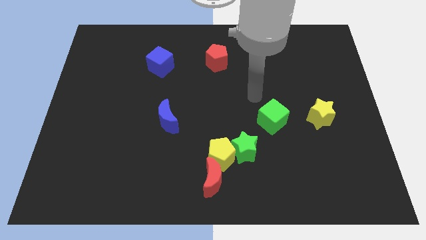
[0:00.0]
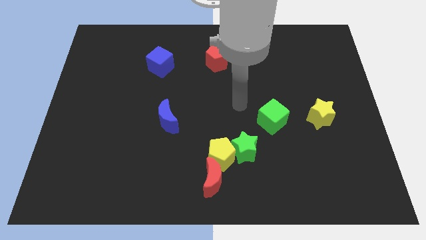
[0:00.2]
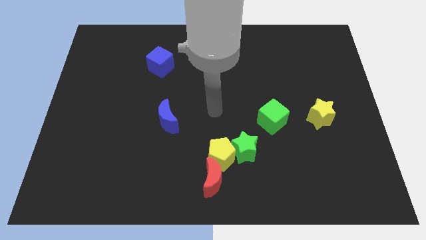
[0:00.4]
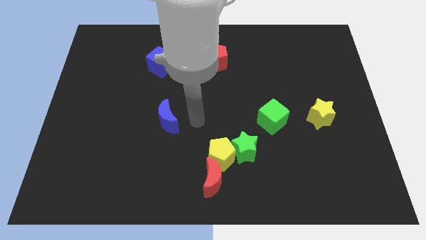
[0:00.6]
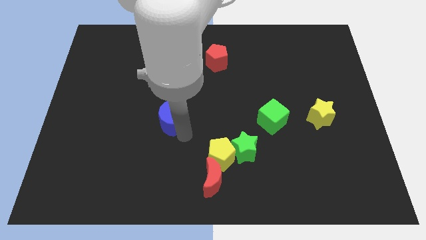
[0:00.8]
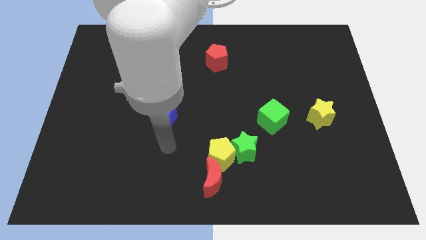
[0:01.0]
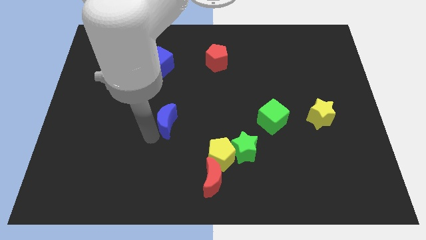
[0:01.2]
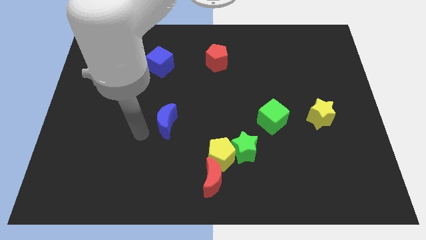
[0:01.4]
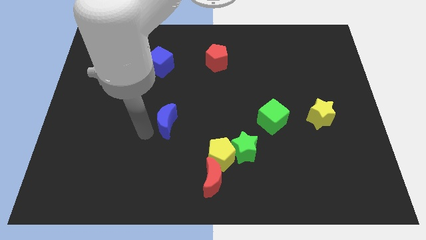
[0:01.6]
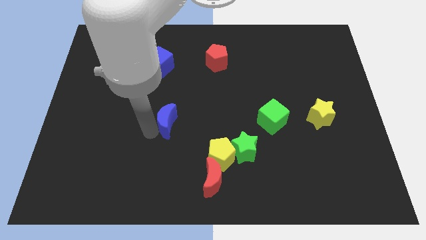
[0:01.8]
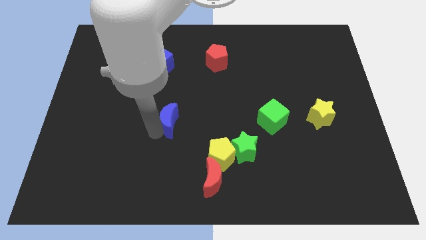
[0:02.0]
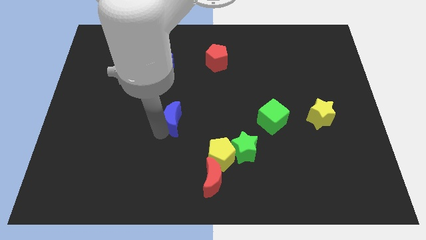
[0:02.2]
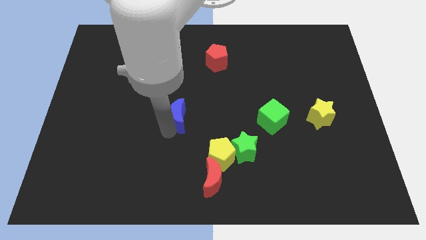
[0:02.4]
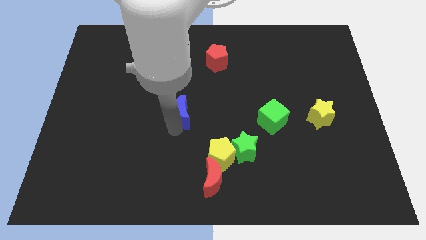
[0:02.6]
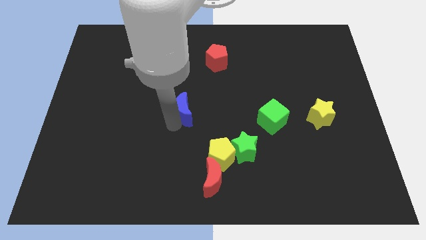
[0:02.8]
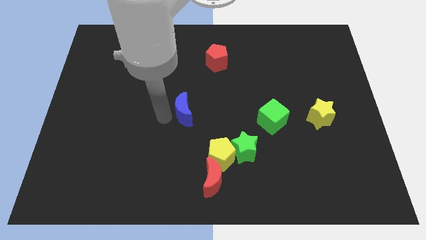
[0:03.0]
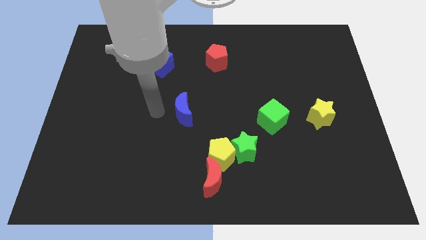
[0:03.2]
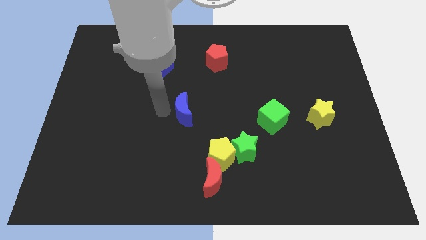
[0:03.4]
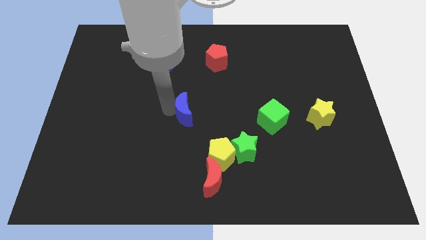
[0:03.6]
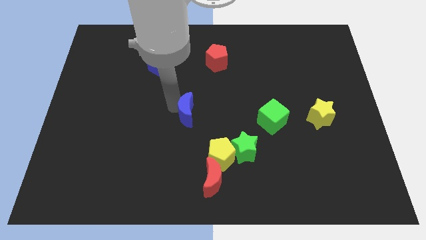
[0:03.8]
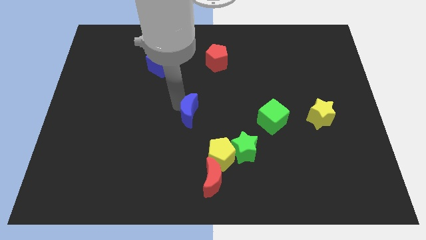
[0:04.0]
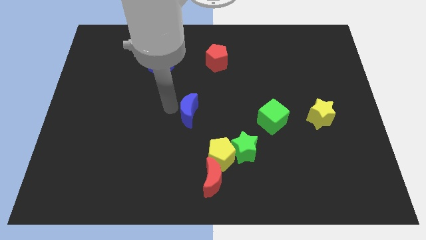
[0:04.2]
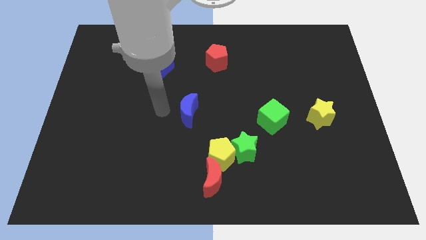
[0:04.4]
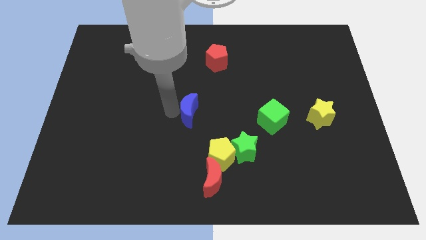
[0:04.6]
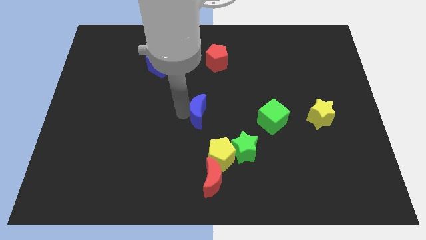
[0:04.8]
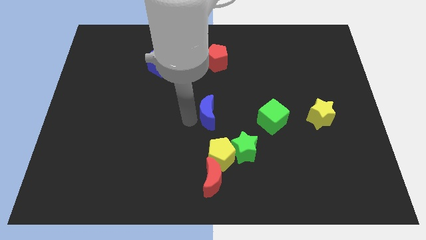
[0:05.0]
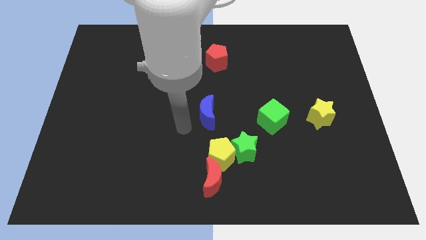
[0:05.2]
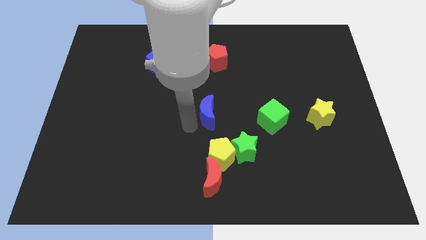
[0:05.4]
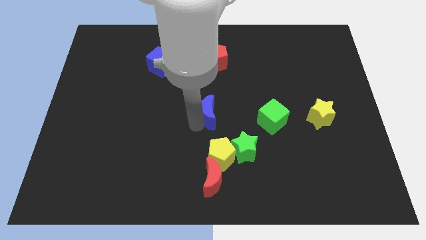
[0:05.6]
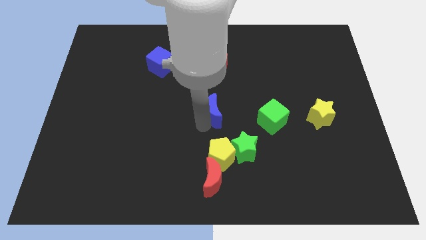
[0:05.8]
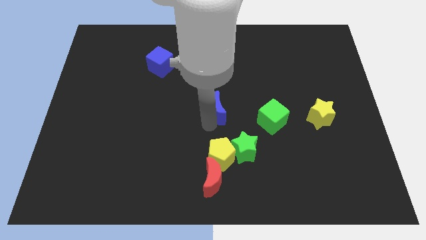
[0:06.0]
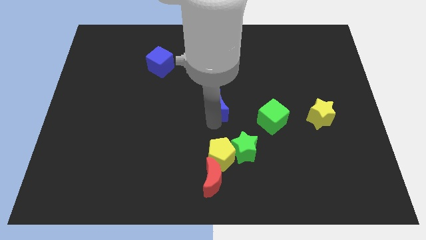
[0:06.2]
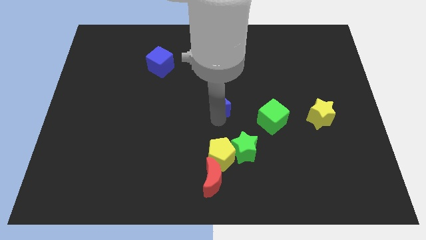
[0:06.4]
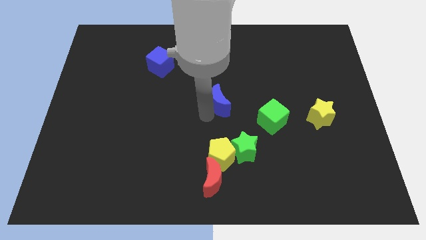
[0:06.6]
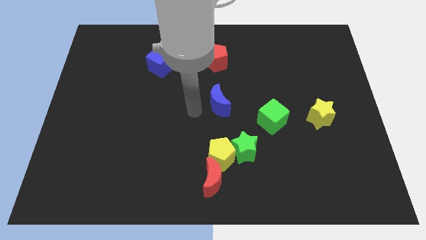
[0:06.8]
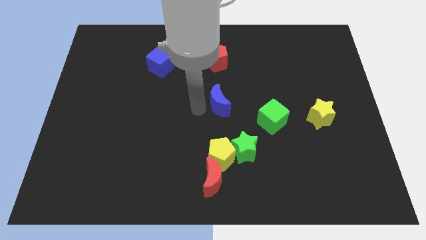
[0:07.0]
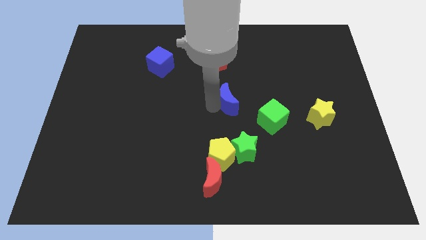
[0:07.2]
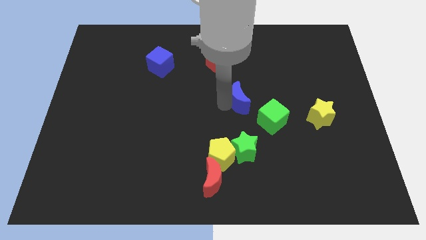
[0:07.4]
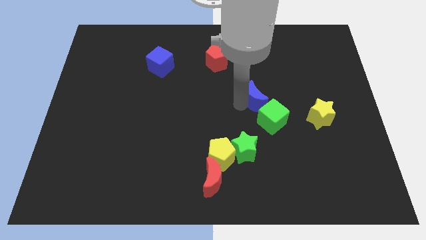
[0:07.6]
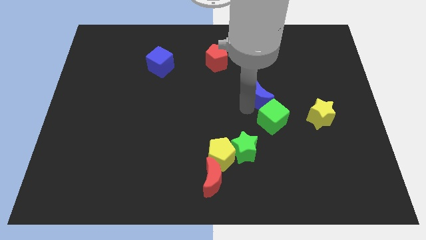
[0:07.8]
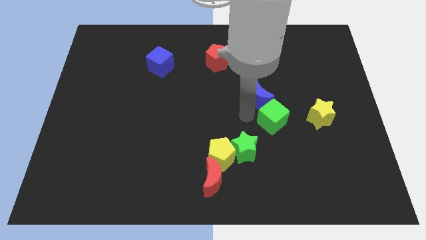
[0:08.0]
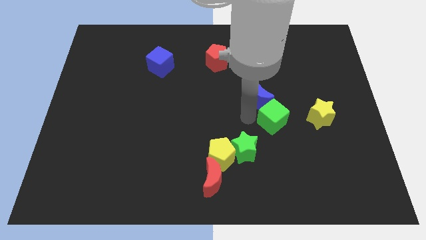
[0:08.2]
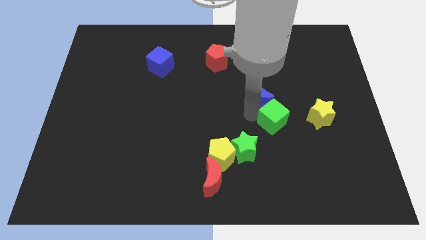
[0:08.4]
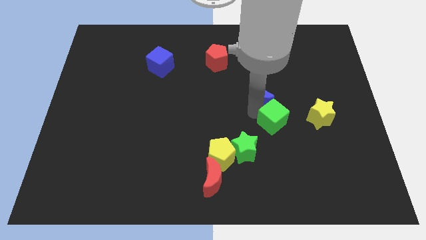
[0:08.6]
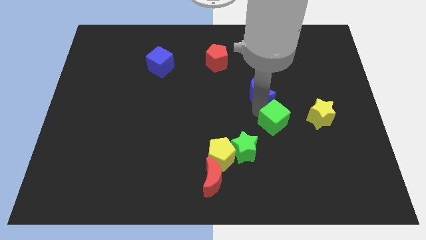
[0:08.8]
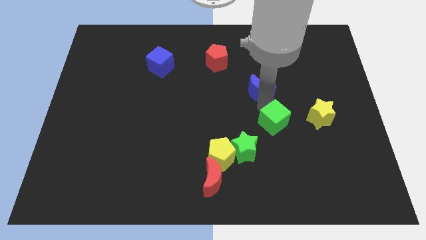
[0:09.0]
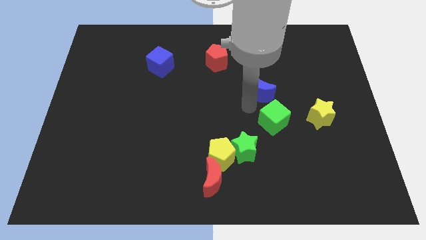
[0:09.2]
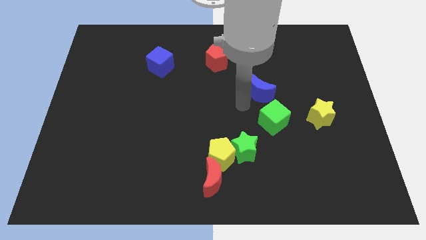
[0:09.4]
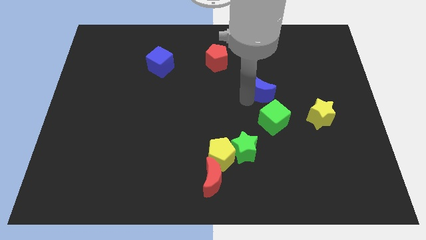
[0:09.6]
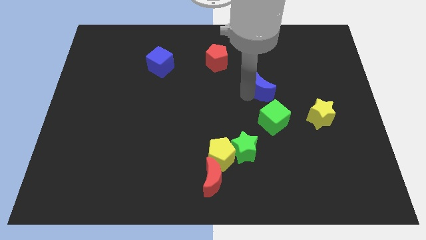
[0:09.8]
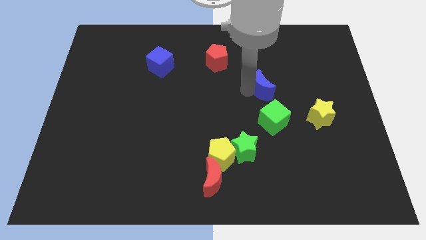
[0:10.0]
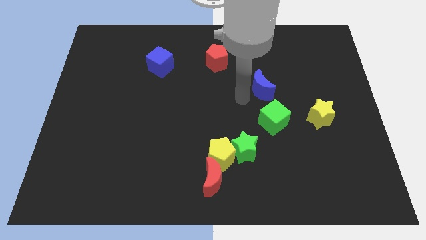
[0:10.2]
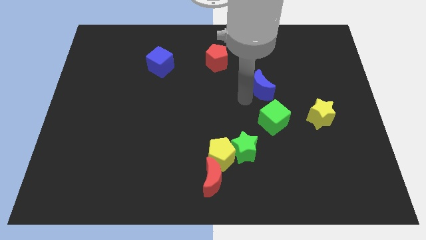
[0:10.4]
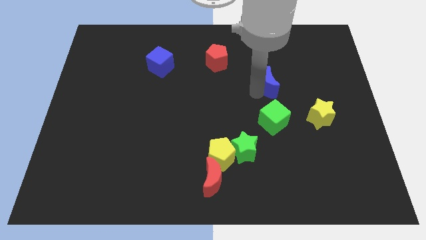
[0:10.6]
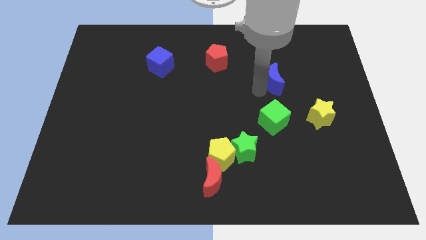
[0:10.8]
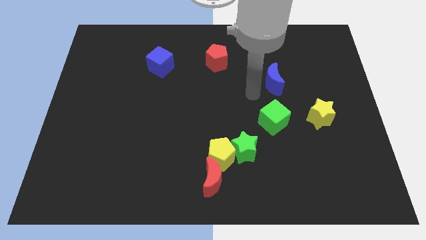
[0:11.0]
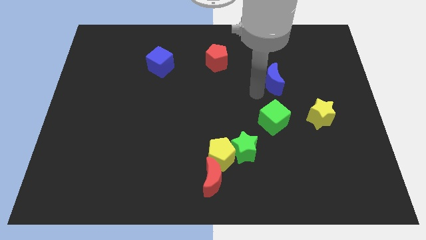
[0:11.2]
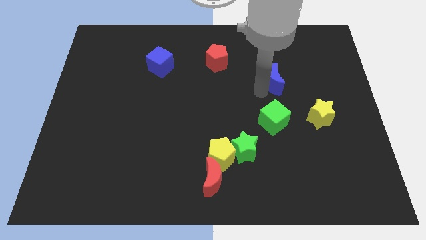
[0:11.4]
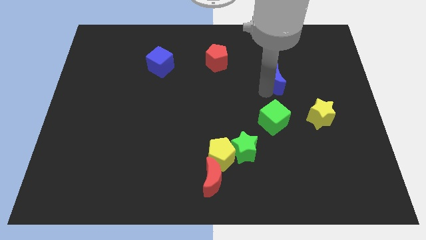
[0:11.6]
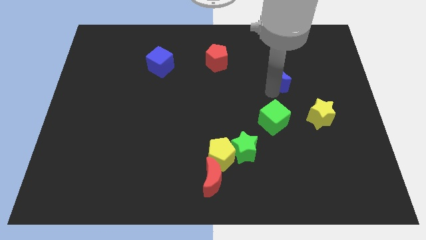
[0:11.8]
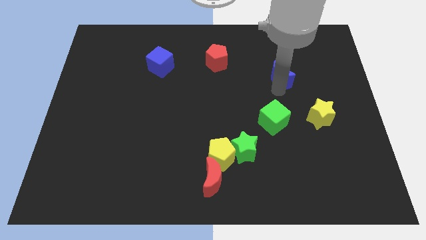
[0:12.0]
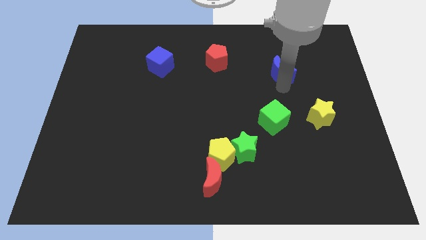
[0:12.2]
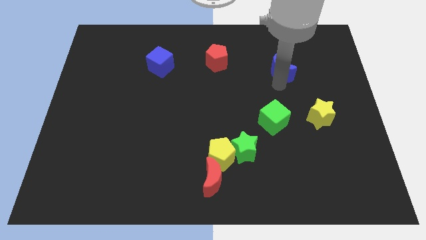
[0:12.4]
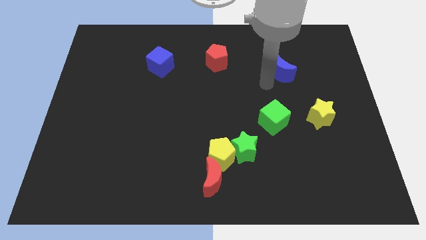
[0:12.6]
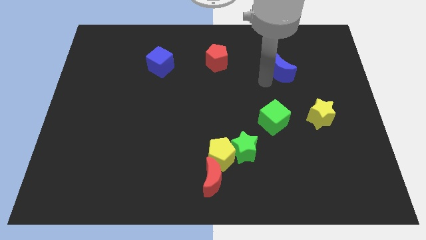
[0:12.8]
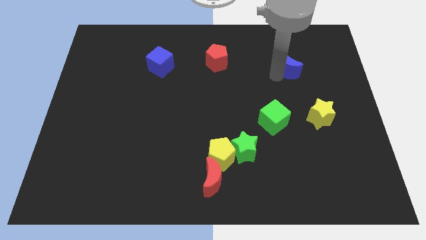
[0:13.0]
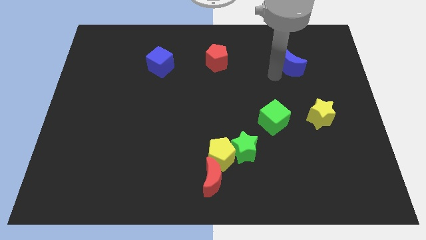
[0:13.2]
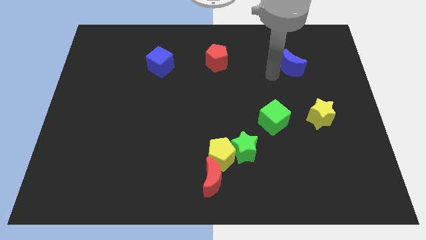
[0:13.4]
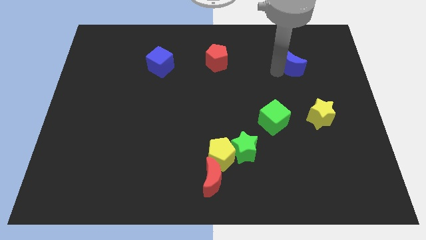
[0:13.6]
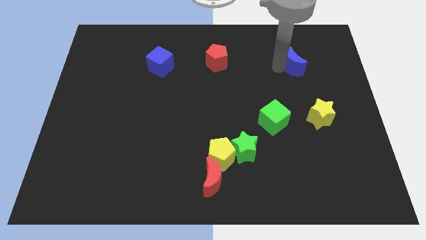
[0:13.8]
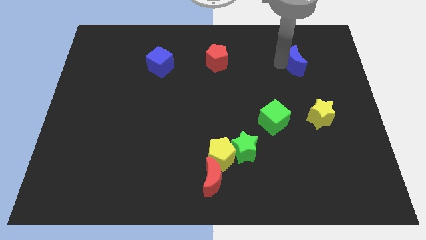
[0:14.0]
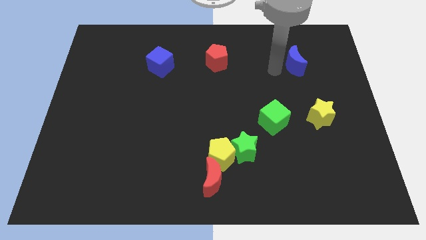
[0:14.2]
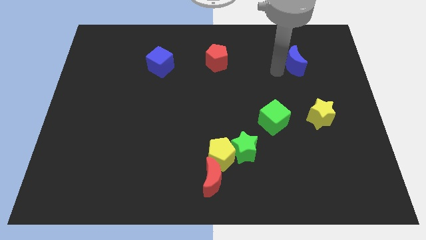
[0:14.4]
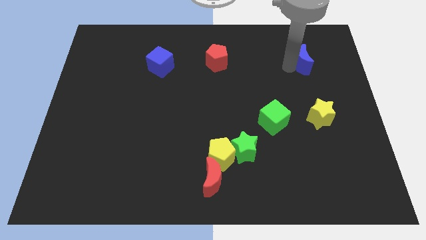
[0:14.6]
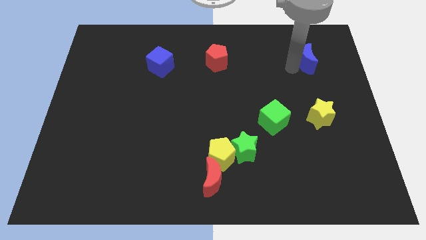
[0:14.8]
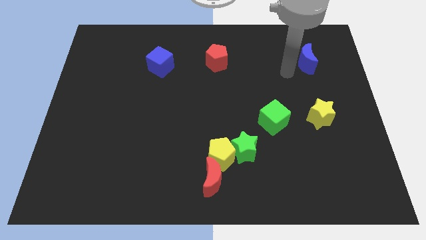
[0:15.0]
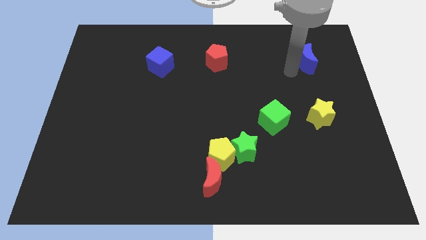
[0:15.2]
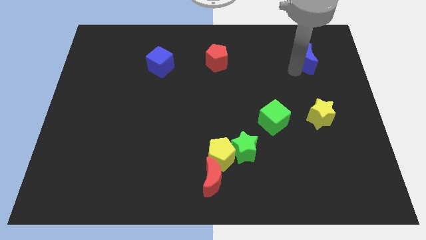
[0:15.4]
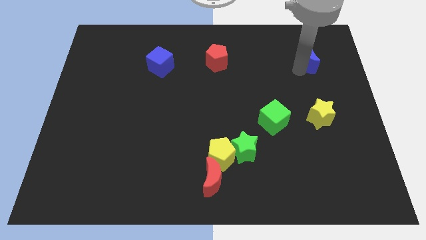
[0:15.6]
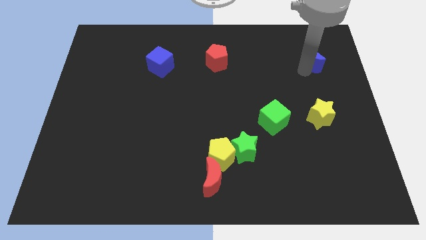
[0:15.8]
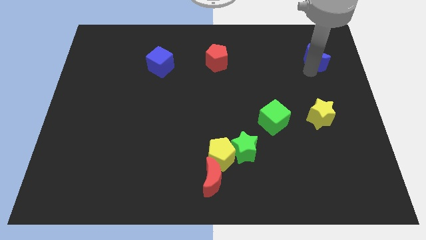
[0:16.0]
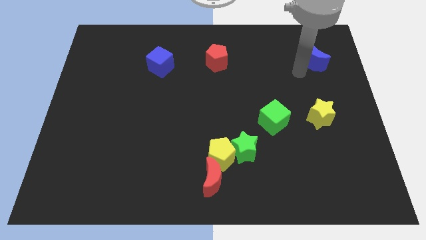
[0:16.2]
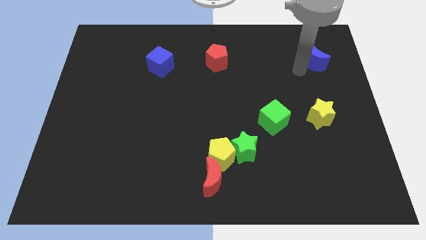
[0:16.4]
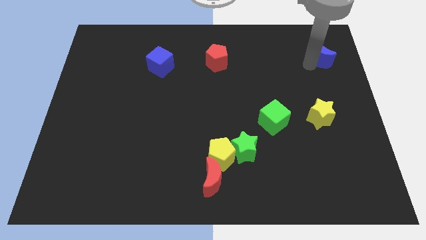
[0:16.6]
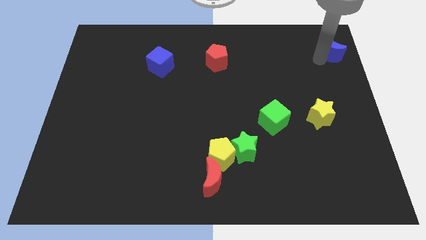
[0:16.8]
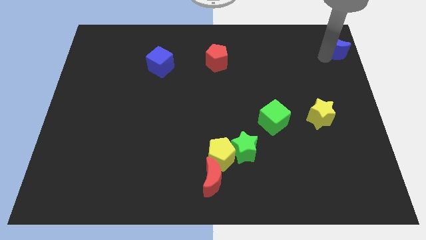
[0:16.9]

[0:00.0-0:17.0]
push the blue moon to the upper right corner
